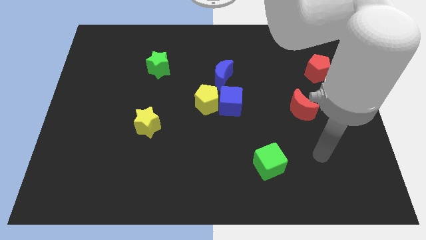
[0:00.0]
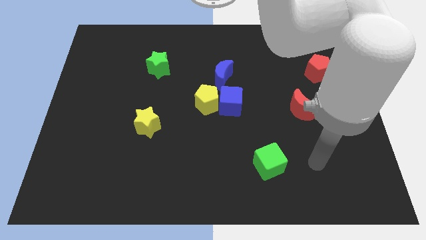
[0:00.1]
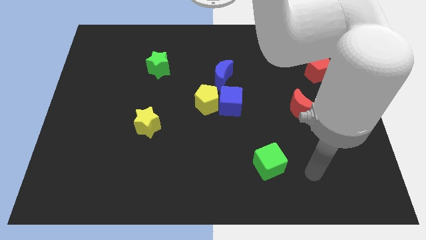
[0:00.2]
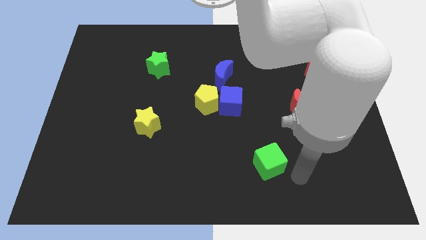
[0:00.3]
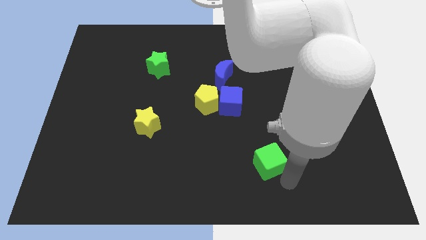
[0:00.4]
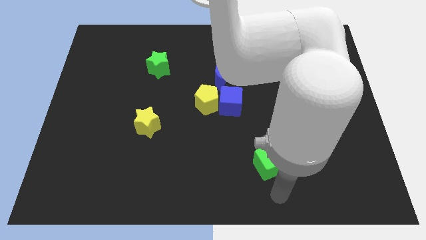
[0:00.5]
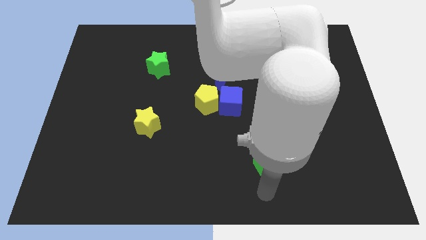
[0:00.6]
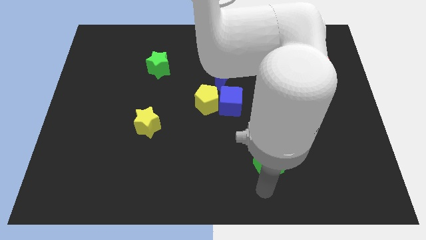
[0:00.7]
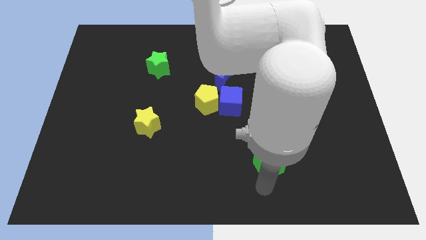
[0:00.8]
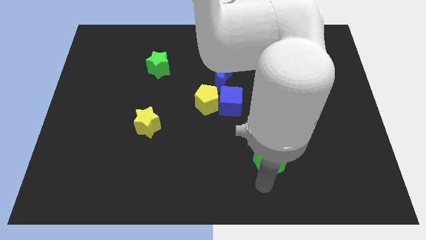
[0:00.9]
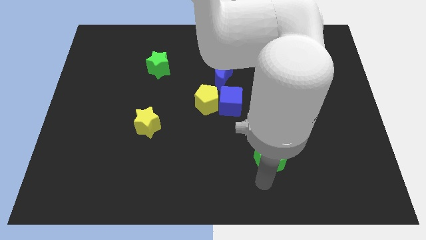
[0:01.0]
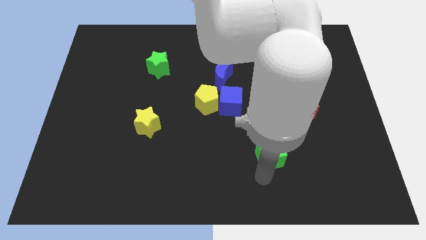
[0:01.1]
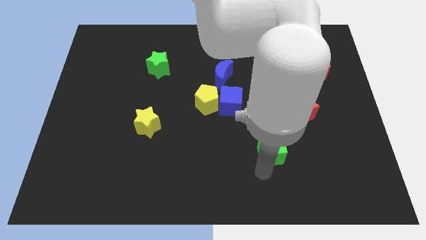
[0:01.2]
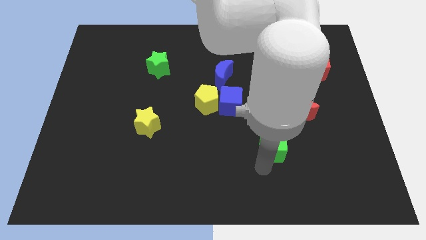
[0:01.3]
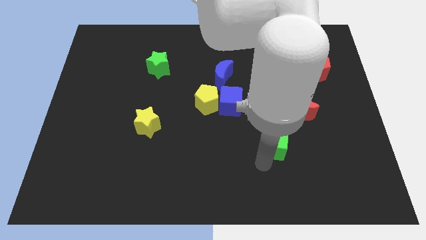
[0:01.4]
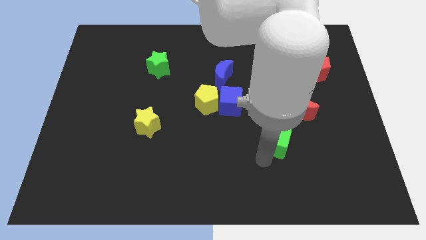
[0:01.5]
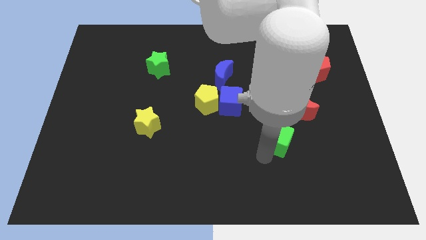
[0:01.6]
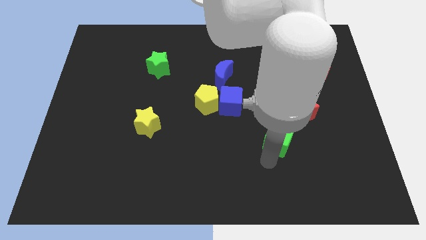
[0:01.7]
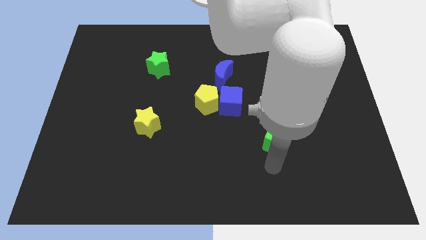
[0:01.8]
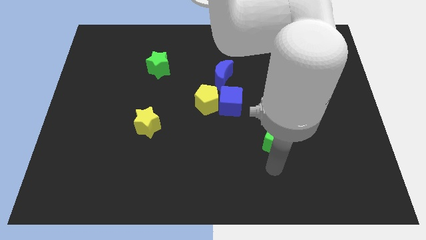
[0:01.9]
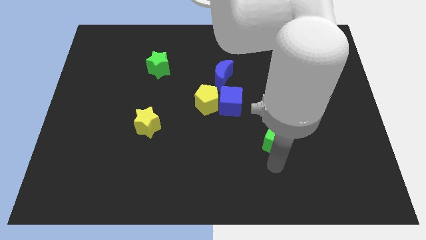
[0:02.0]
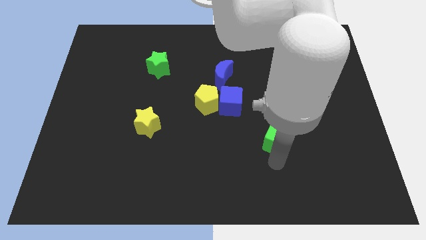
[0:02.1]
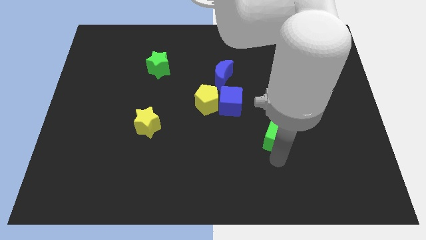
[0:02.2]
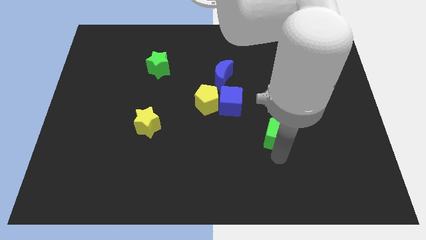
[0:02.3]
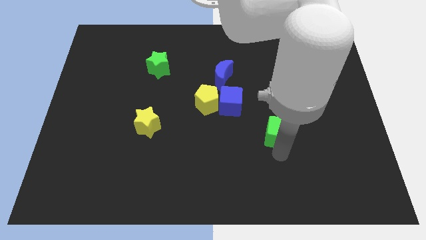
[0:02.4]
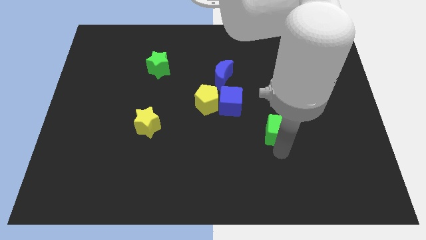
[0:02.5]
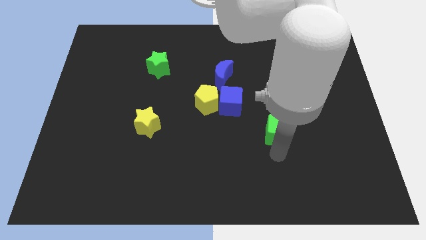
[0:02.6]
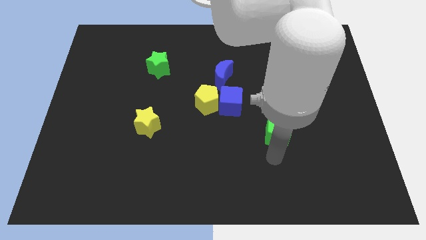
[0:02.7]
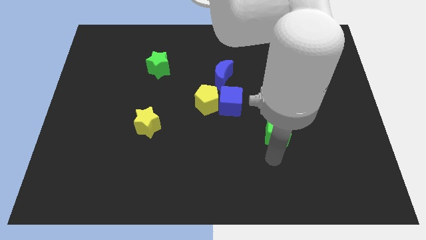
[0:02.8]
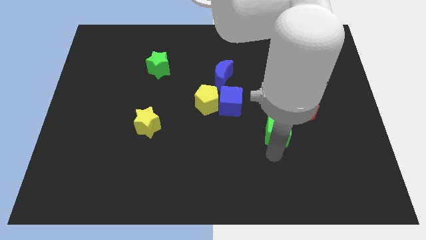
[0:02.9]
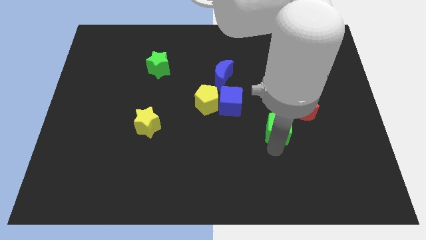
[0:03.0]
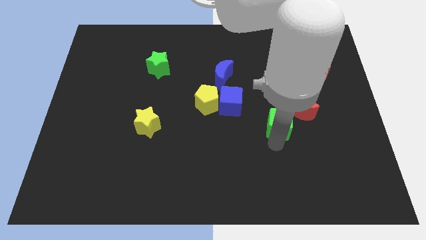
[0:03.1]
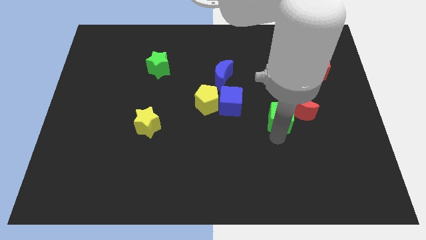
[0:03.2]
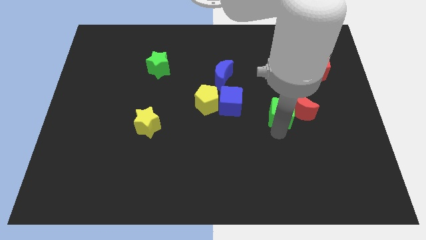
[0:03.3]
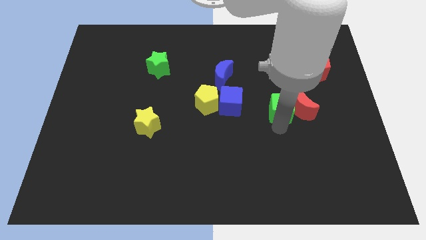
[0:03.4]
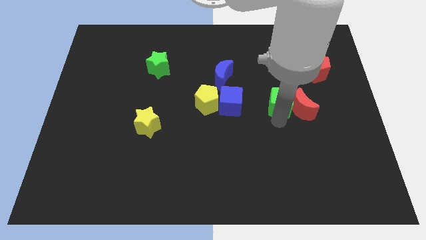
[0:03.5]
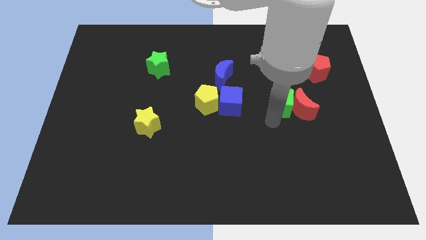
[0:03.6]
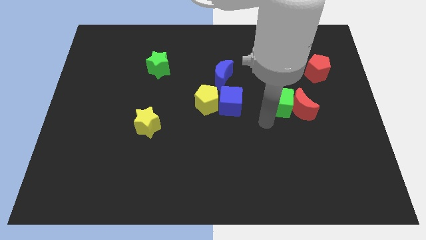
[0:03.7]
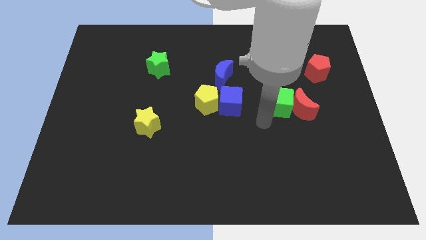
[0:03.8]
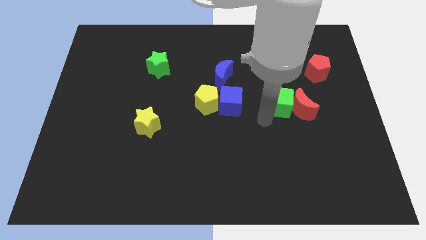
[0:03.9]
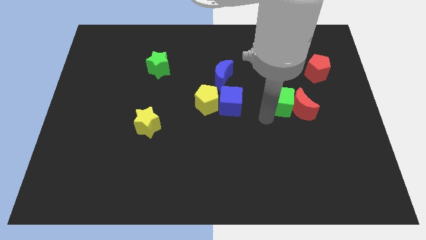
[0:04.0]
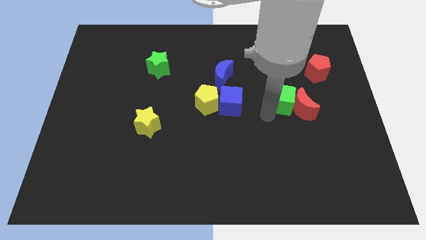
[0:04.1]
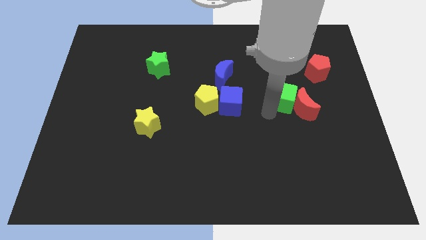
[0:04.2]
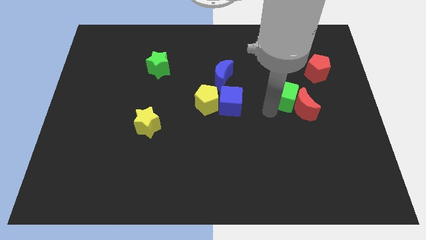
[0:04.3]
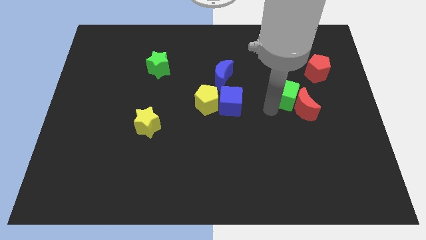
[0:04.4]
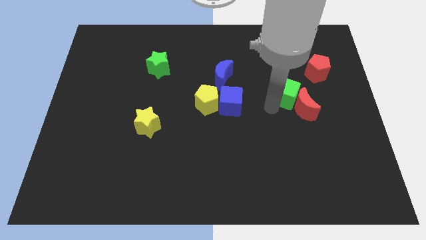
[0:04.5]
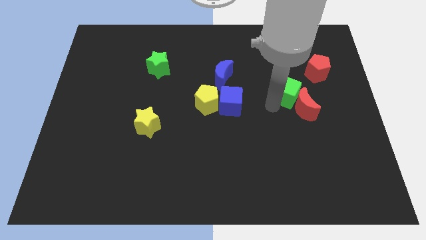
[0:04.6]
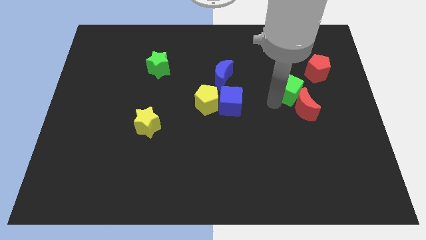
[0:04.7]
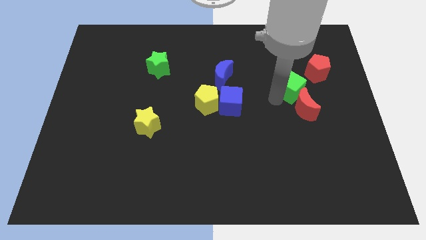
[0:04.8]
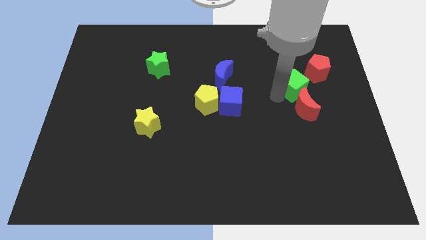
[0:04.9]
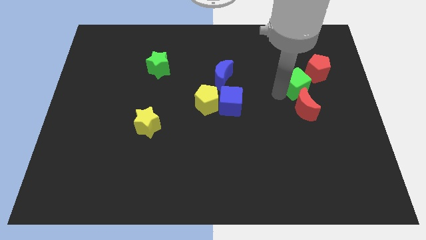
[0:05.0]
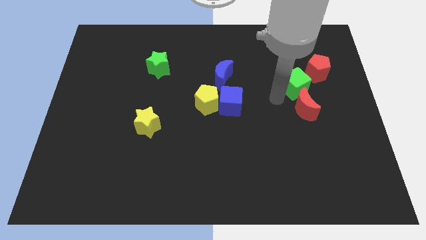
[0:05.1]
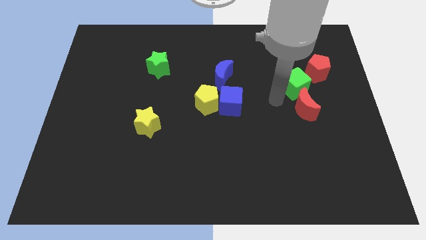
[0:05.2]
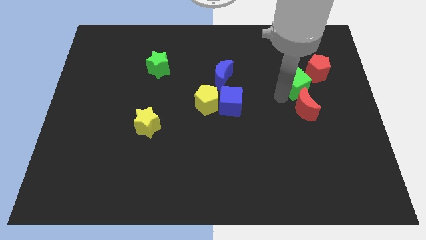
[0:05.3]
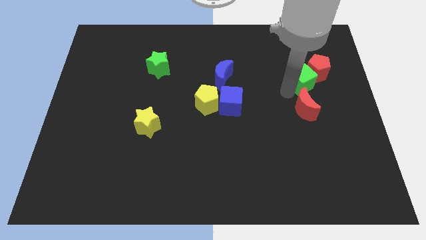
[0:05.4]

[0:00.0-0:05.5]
slide the green cube to the red pentagon

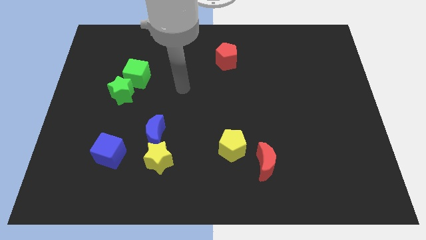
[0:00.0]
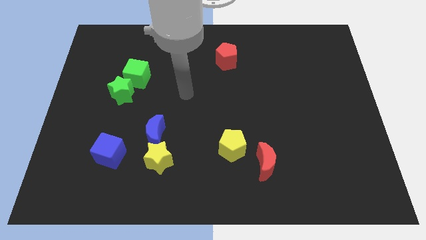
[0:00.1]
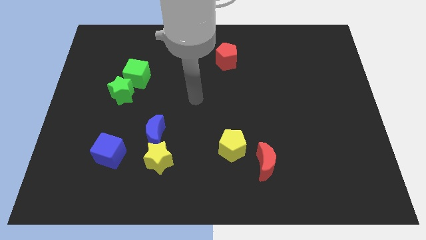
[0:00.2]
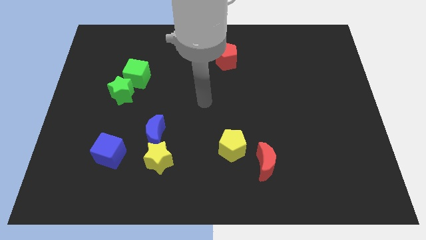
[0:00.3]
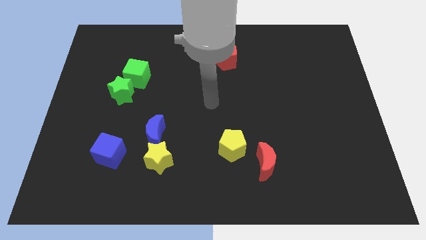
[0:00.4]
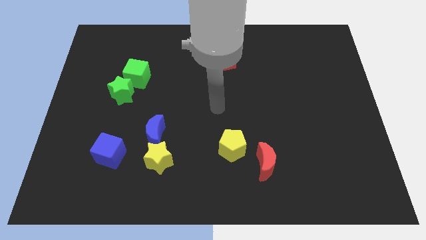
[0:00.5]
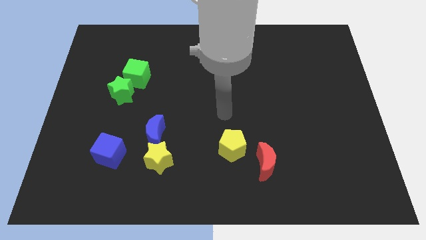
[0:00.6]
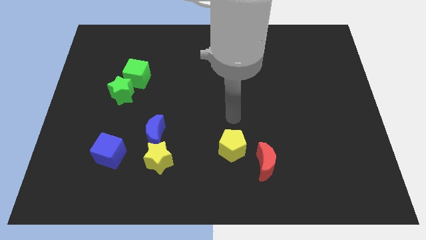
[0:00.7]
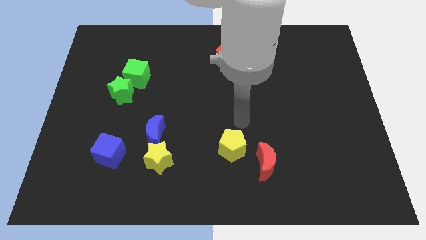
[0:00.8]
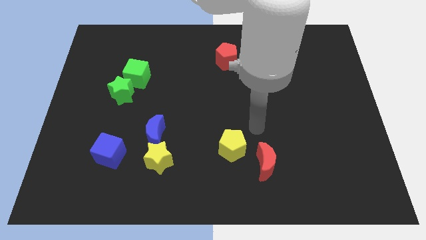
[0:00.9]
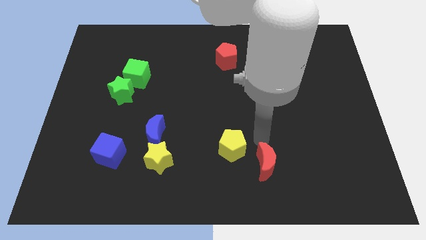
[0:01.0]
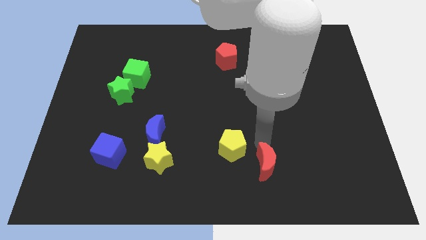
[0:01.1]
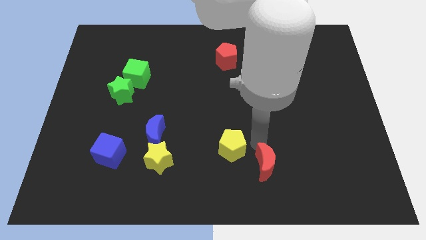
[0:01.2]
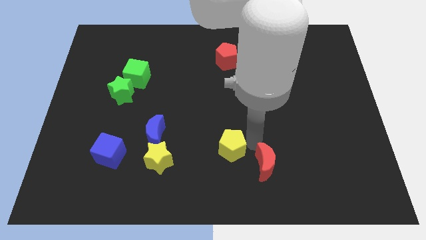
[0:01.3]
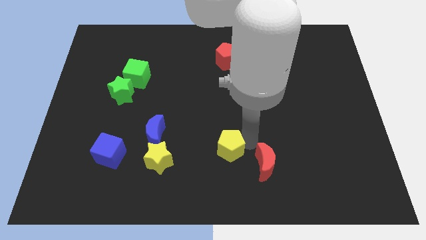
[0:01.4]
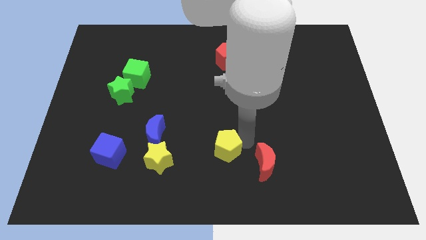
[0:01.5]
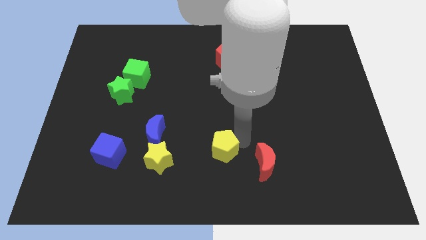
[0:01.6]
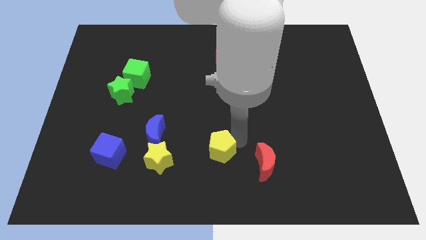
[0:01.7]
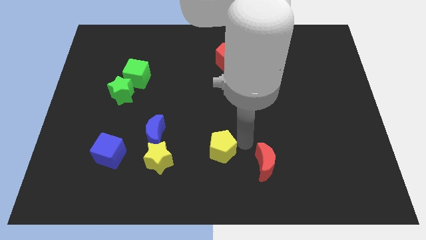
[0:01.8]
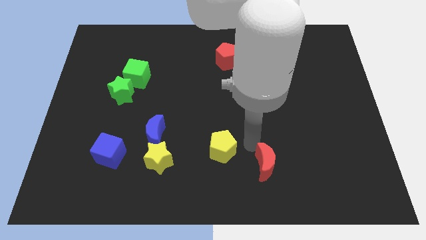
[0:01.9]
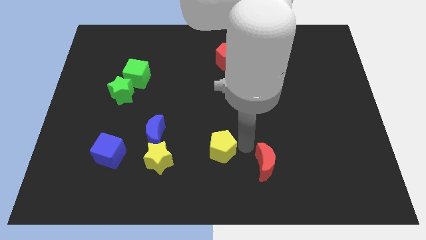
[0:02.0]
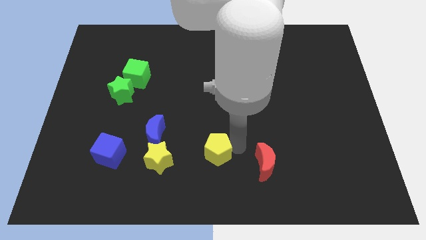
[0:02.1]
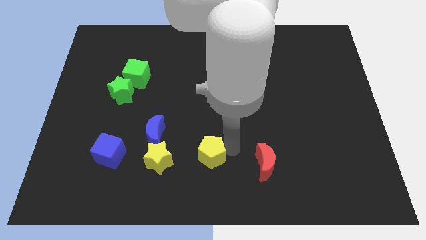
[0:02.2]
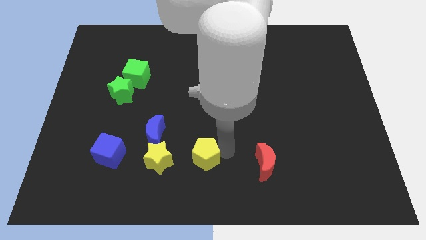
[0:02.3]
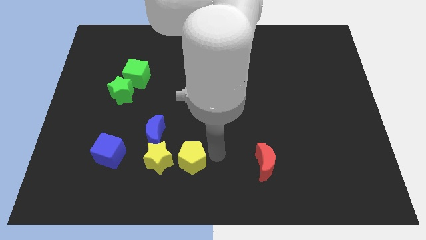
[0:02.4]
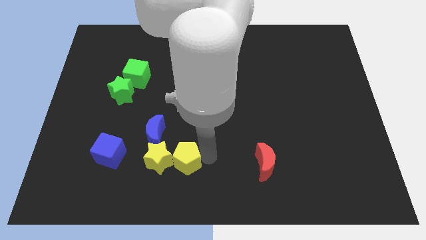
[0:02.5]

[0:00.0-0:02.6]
push the yellow pentagon towards the yellow star
